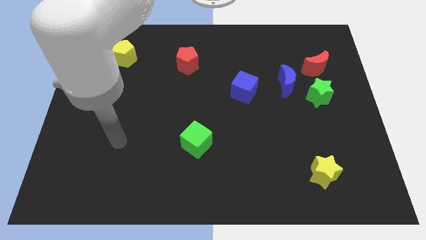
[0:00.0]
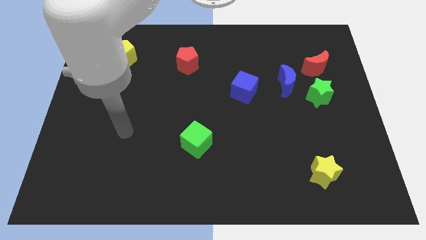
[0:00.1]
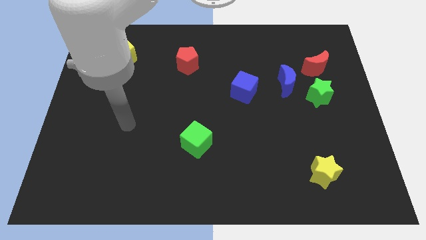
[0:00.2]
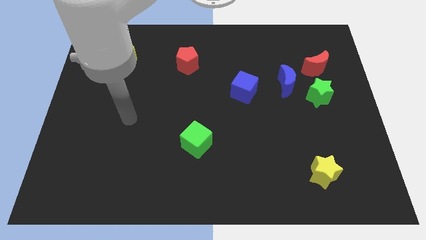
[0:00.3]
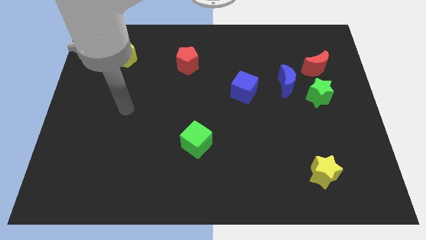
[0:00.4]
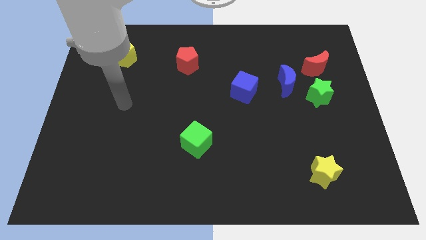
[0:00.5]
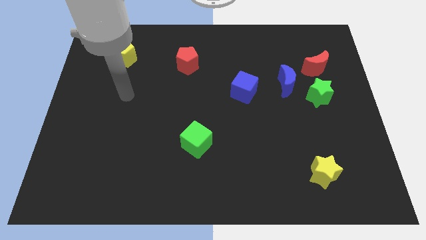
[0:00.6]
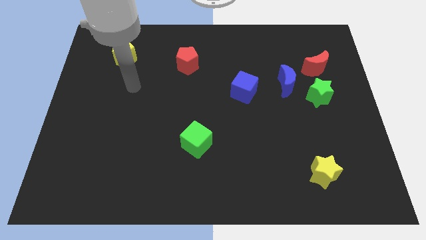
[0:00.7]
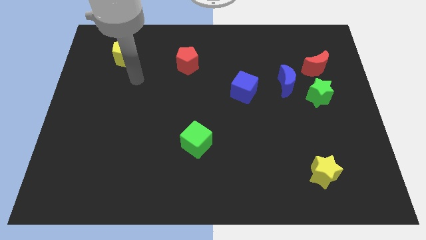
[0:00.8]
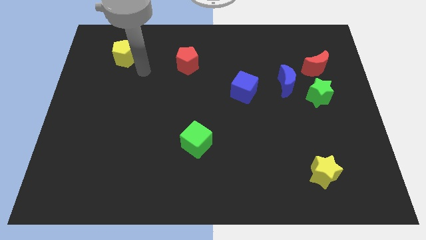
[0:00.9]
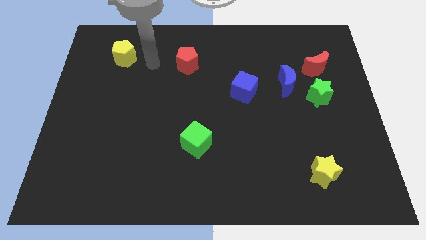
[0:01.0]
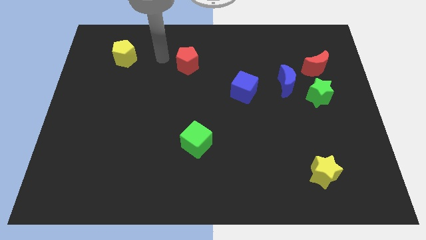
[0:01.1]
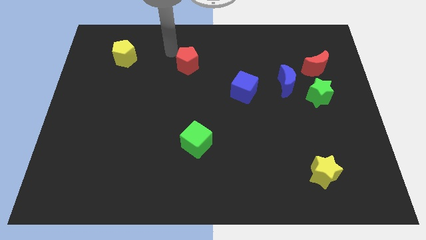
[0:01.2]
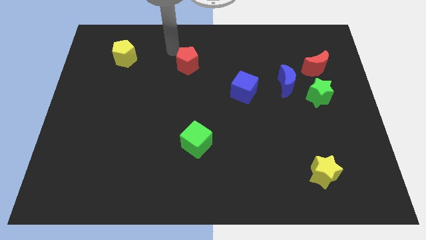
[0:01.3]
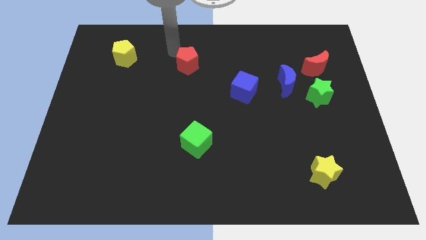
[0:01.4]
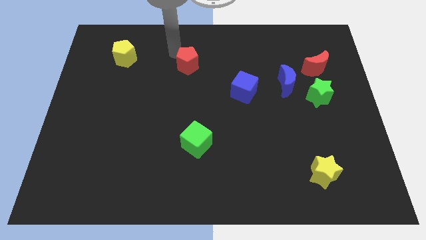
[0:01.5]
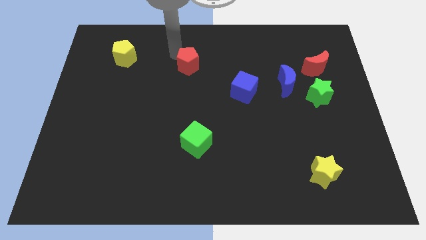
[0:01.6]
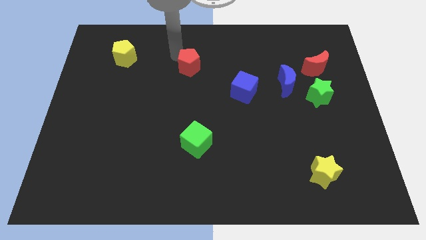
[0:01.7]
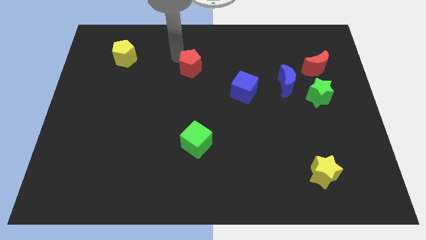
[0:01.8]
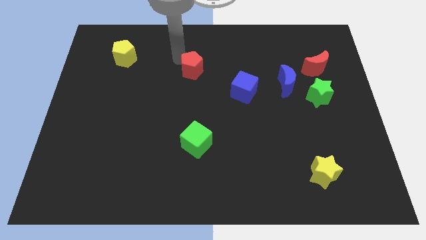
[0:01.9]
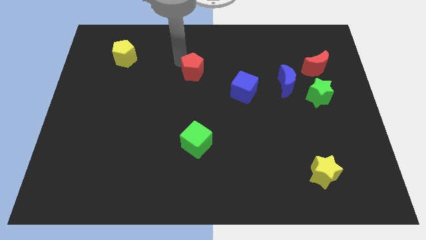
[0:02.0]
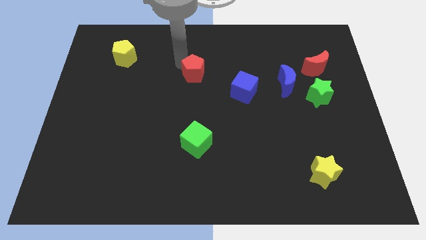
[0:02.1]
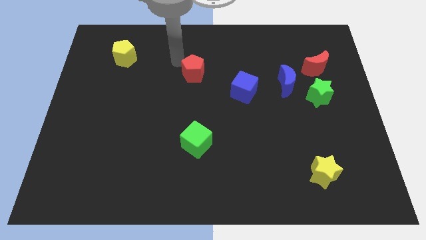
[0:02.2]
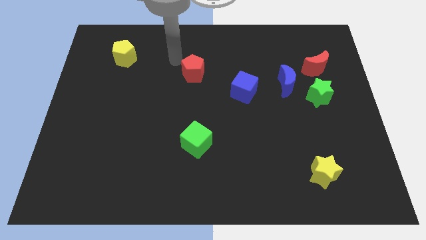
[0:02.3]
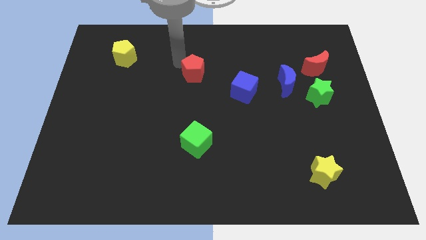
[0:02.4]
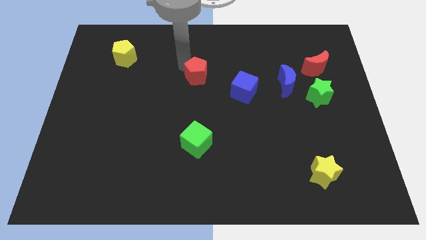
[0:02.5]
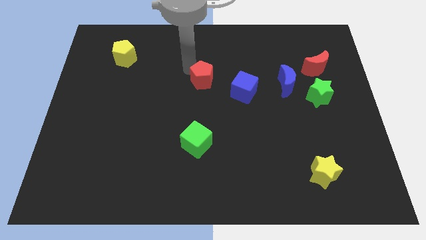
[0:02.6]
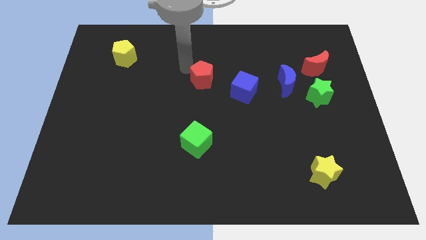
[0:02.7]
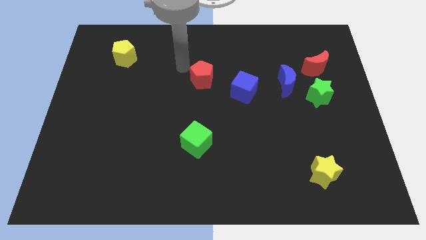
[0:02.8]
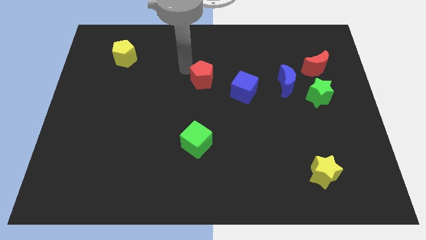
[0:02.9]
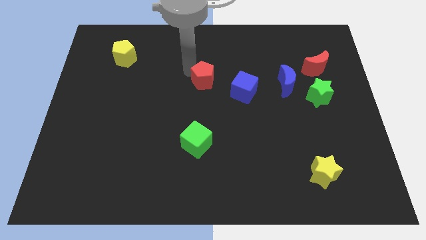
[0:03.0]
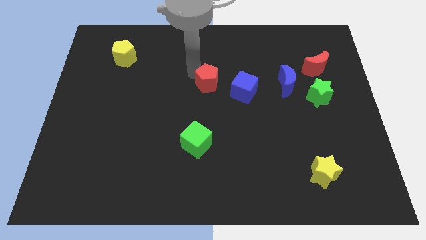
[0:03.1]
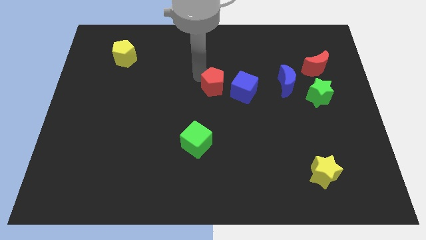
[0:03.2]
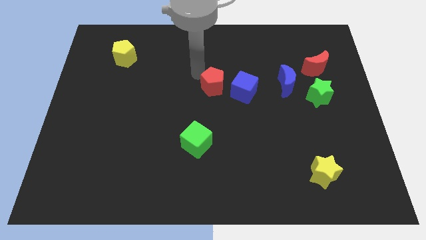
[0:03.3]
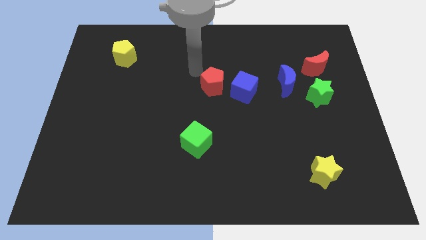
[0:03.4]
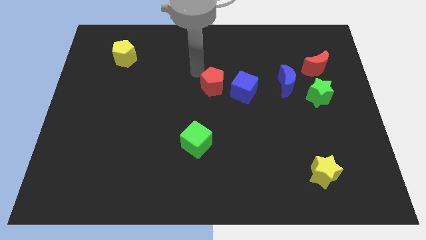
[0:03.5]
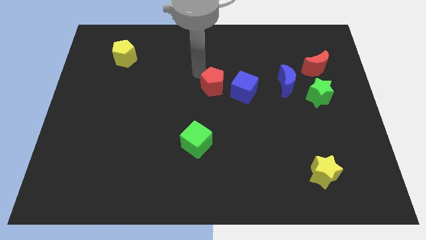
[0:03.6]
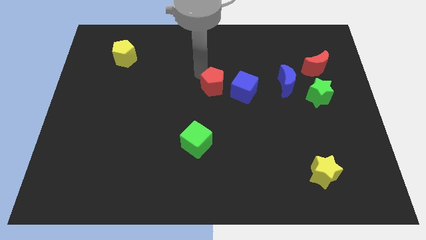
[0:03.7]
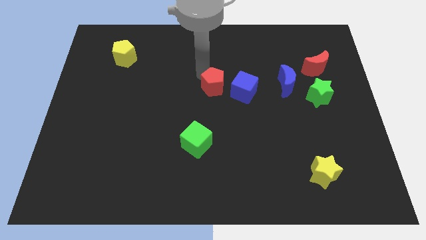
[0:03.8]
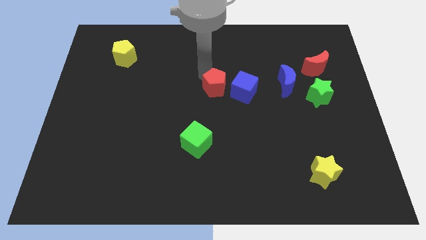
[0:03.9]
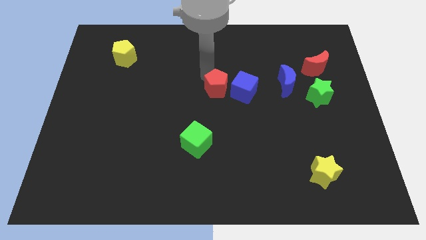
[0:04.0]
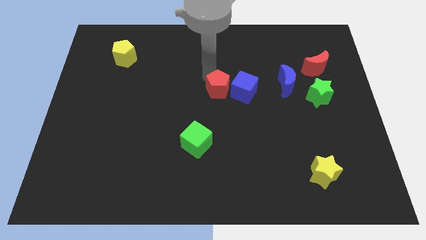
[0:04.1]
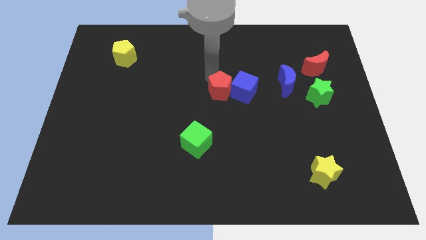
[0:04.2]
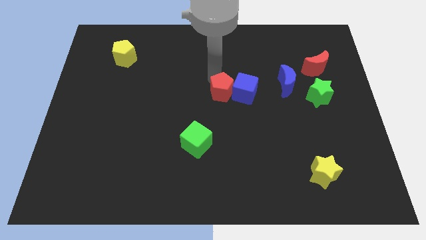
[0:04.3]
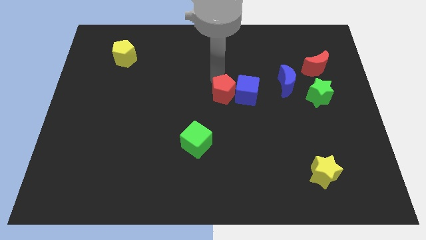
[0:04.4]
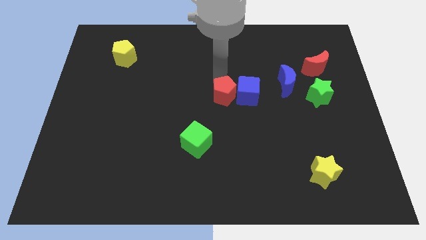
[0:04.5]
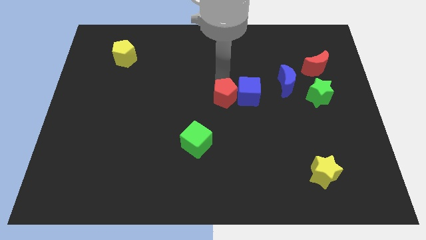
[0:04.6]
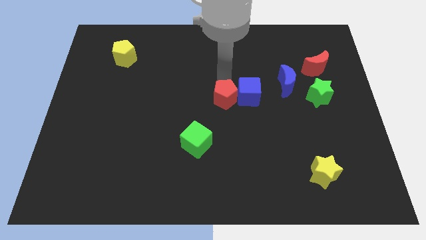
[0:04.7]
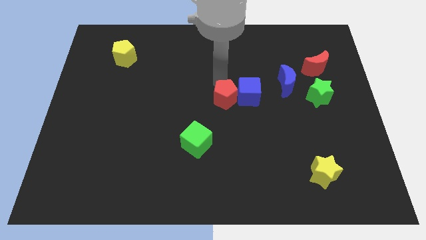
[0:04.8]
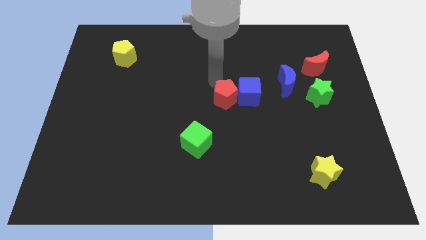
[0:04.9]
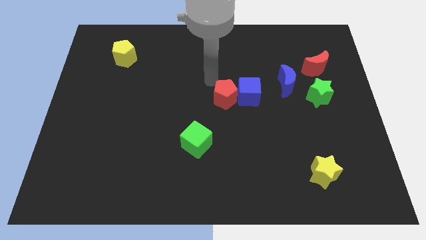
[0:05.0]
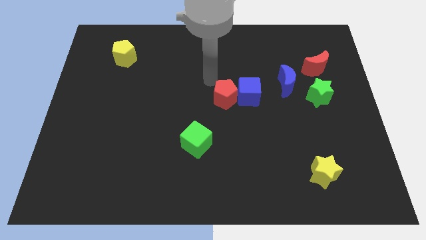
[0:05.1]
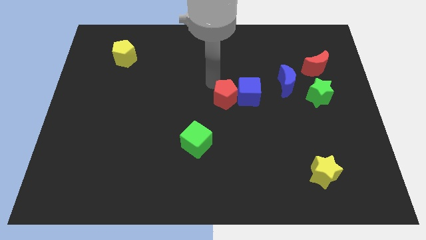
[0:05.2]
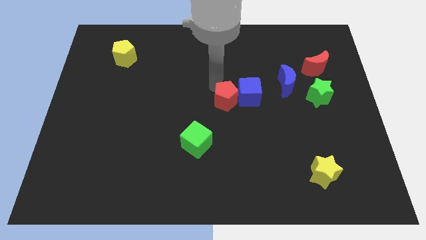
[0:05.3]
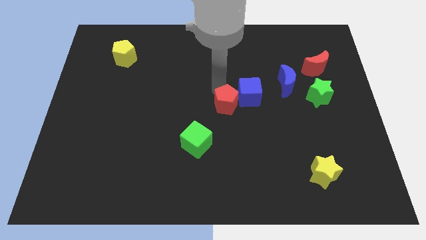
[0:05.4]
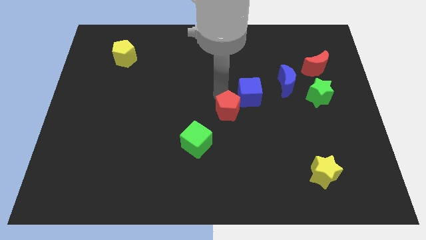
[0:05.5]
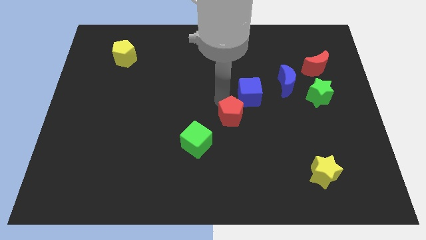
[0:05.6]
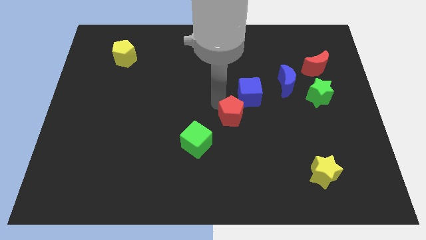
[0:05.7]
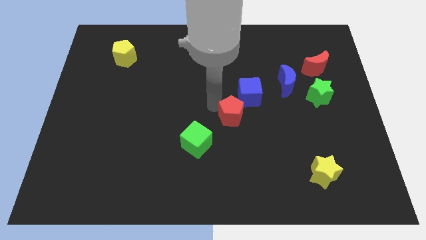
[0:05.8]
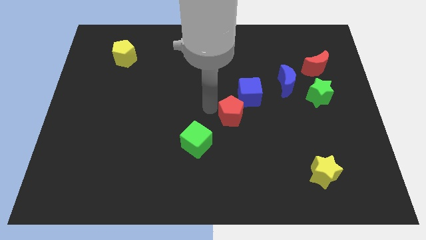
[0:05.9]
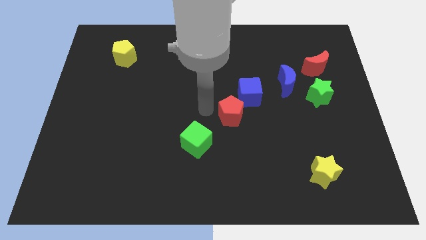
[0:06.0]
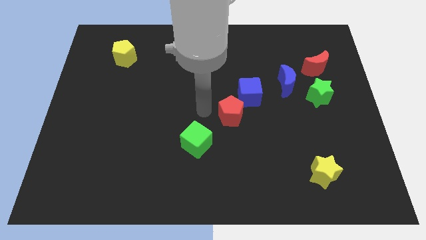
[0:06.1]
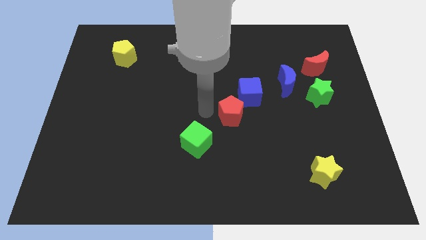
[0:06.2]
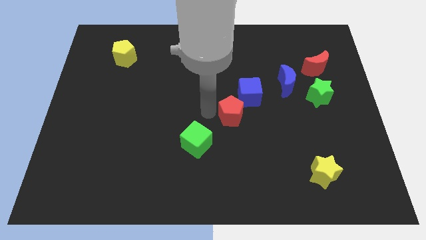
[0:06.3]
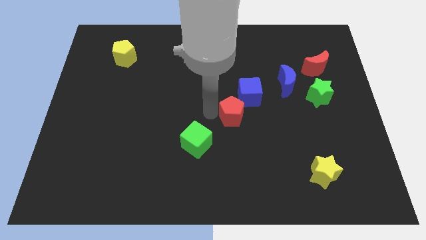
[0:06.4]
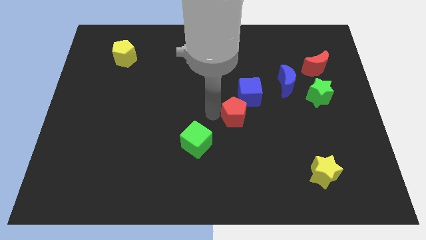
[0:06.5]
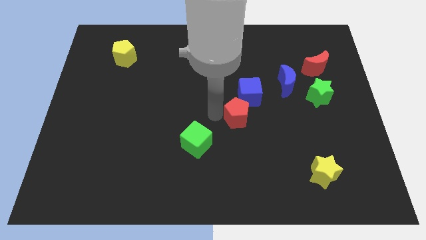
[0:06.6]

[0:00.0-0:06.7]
push the red pentagon downwards and then to the right

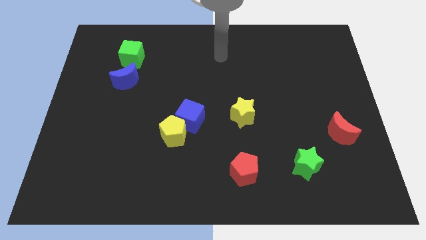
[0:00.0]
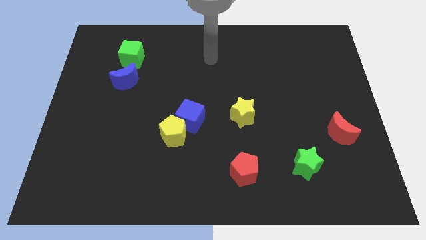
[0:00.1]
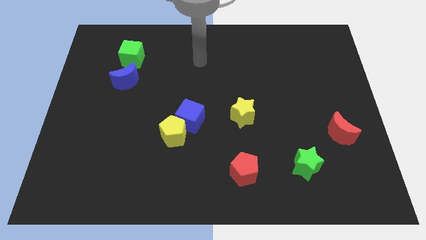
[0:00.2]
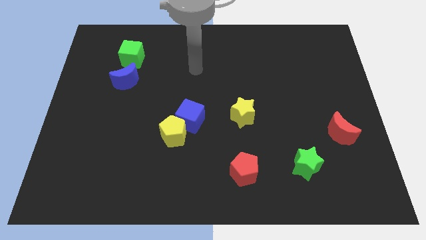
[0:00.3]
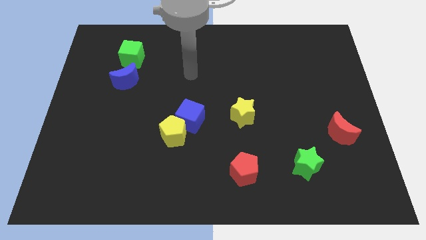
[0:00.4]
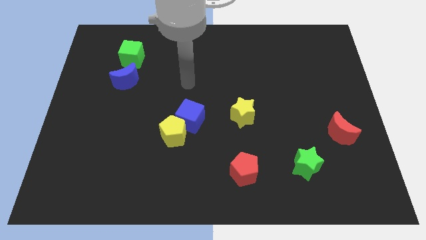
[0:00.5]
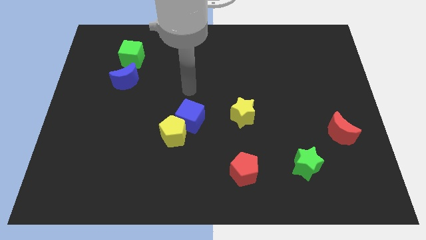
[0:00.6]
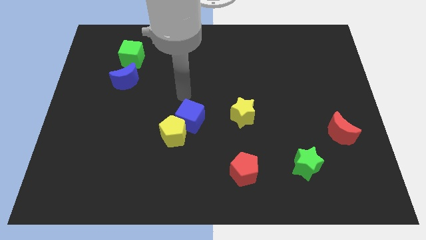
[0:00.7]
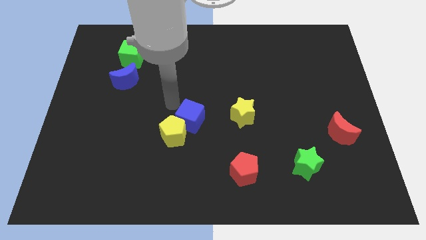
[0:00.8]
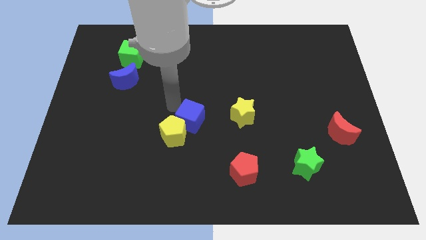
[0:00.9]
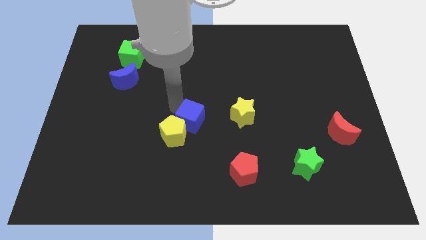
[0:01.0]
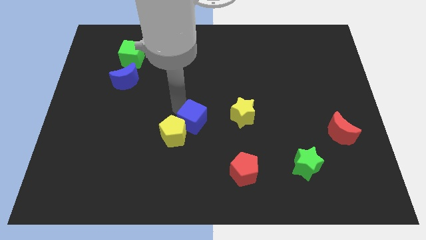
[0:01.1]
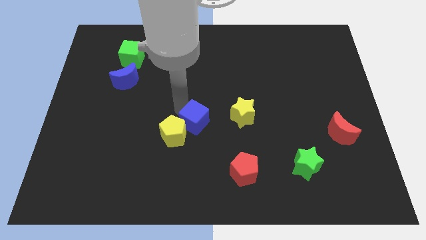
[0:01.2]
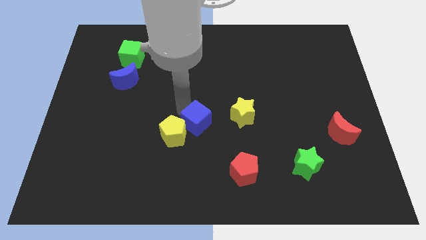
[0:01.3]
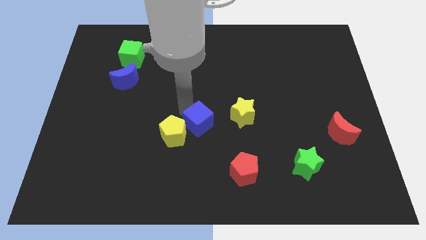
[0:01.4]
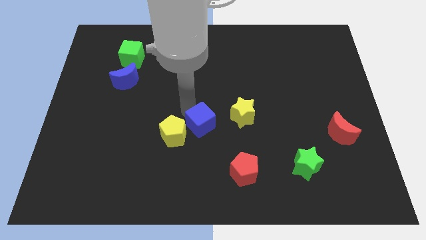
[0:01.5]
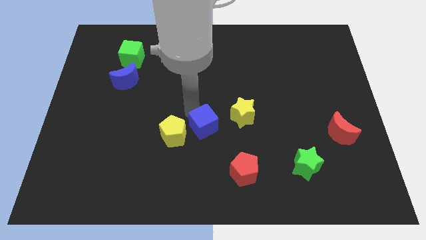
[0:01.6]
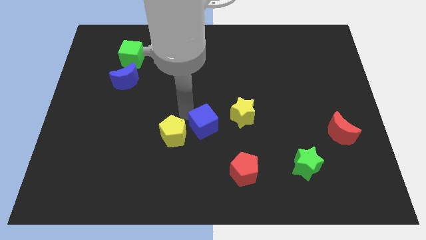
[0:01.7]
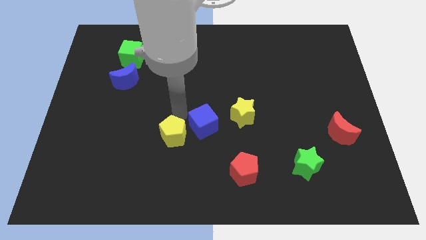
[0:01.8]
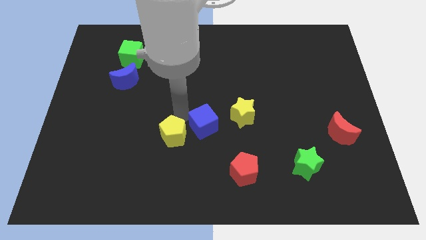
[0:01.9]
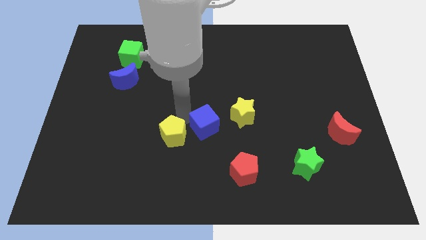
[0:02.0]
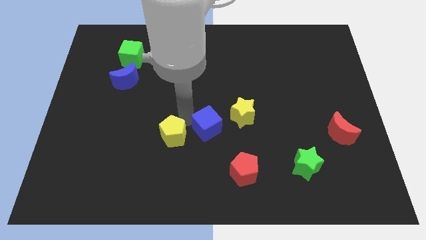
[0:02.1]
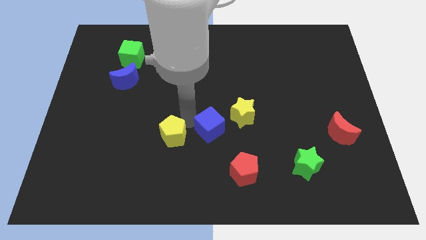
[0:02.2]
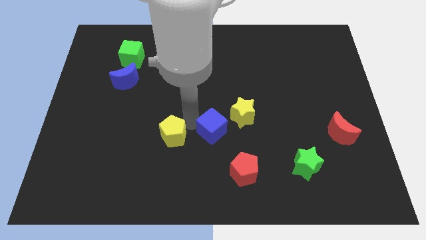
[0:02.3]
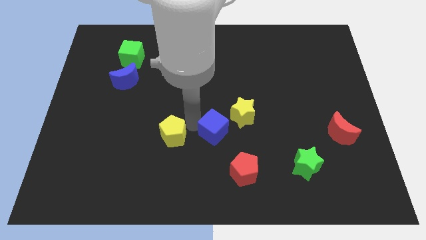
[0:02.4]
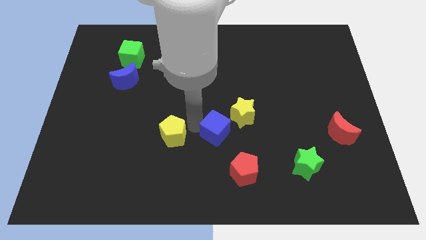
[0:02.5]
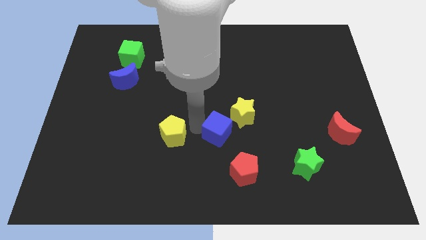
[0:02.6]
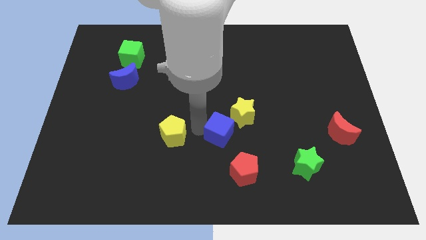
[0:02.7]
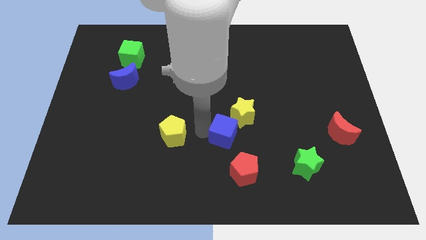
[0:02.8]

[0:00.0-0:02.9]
slightly slide the blue cube right
